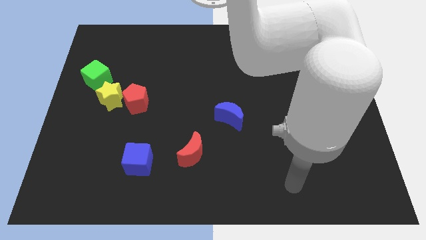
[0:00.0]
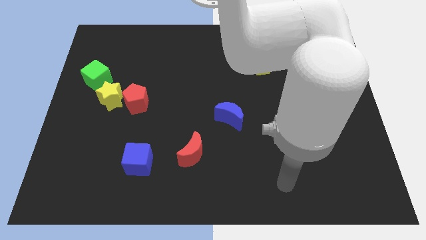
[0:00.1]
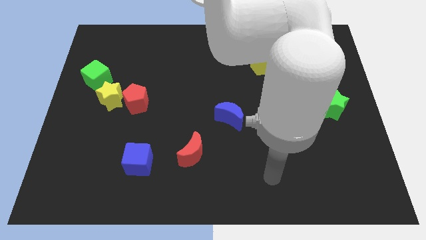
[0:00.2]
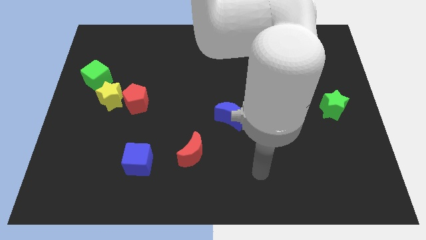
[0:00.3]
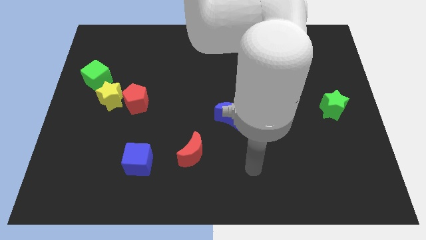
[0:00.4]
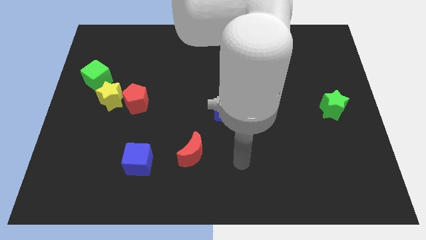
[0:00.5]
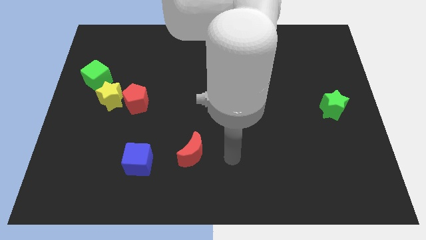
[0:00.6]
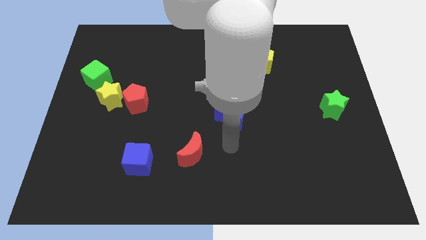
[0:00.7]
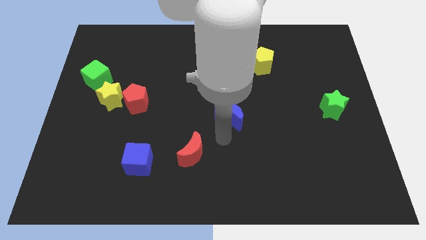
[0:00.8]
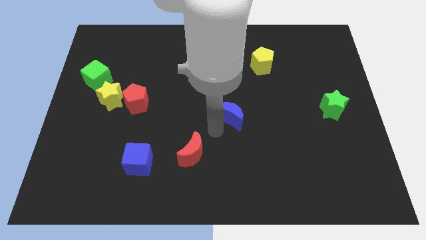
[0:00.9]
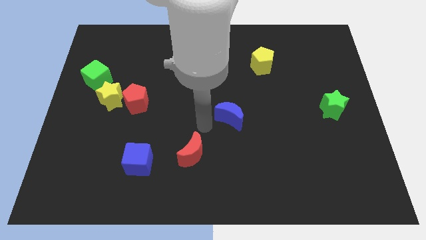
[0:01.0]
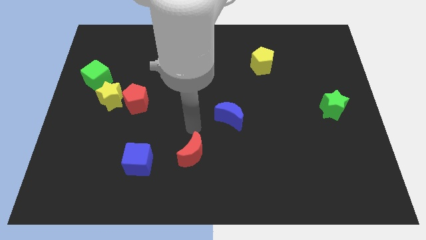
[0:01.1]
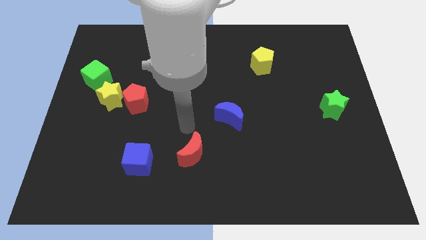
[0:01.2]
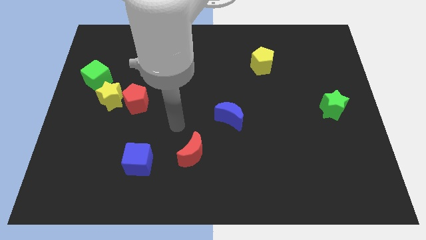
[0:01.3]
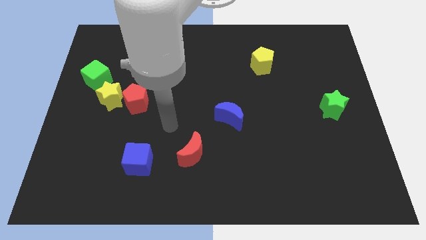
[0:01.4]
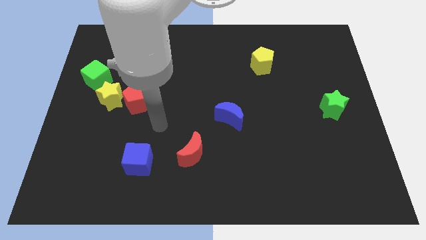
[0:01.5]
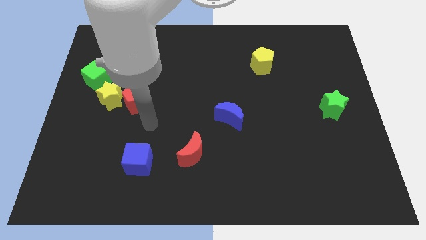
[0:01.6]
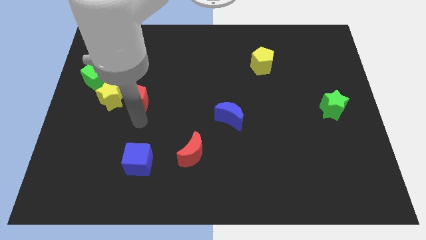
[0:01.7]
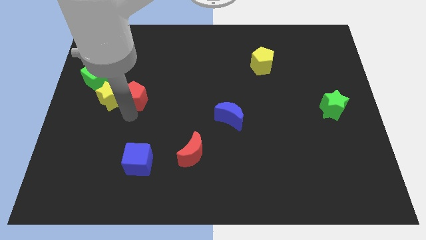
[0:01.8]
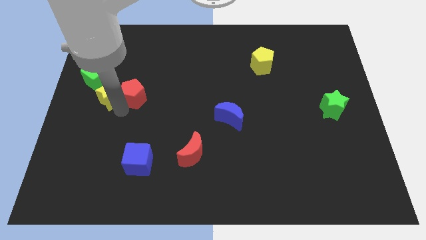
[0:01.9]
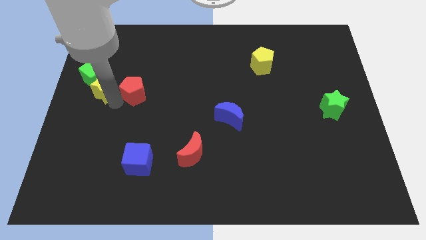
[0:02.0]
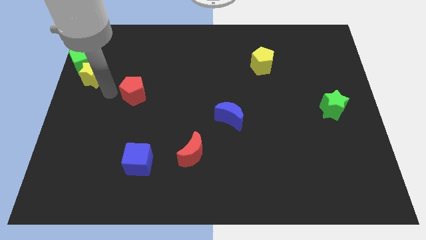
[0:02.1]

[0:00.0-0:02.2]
pull the red pentagon apart from the yellow star

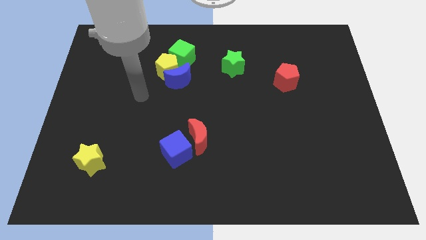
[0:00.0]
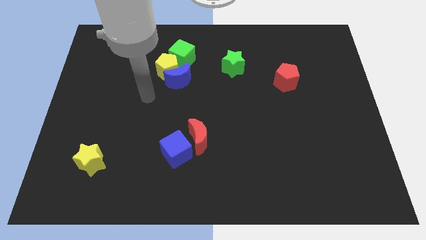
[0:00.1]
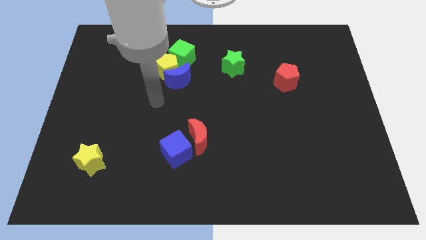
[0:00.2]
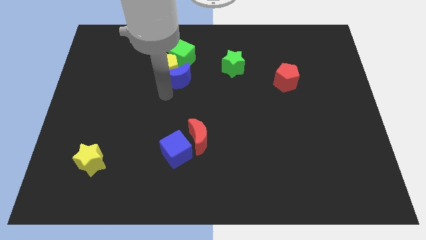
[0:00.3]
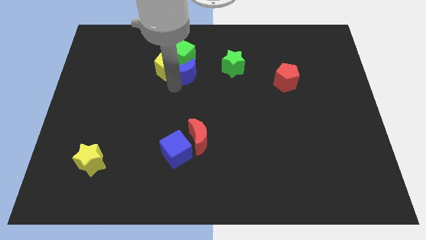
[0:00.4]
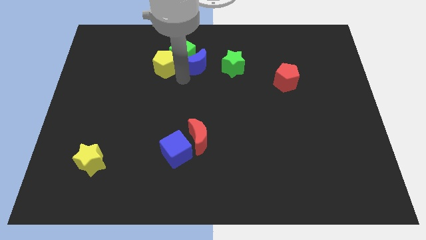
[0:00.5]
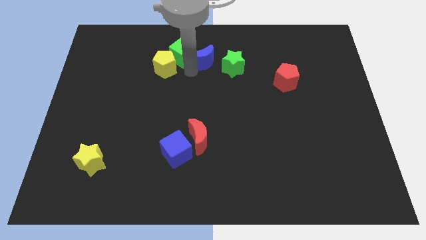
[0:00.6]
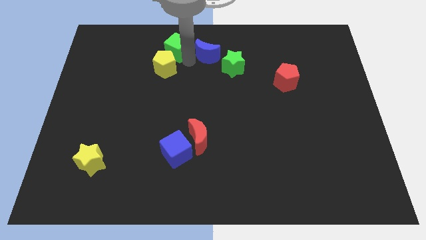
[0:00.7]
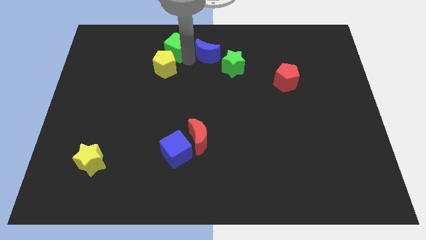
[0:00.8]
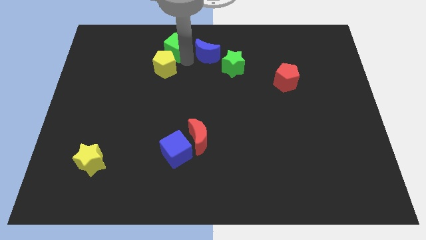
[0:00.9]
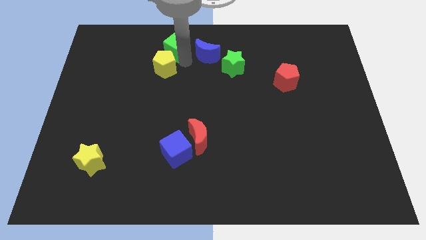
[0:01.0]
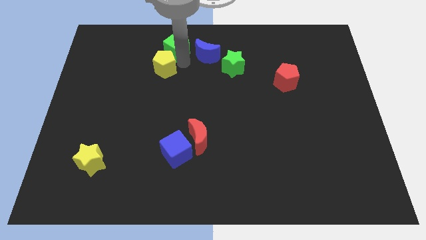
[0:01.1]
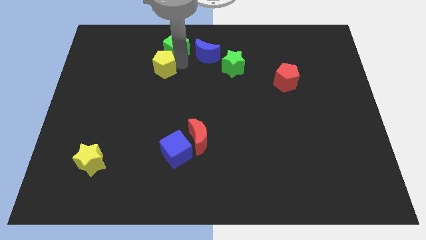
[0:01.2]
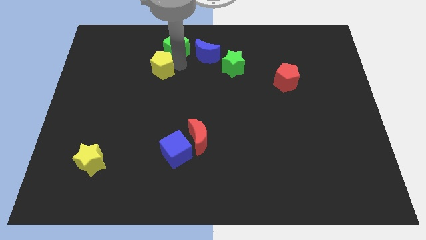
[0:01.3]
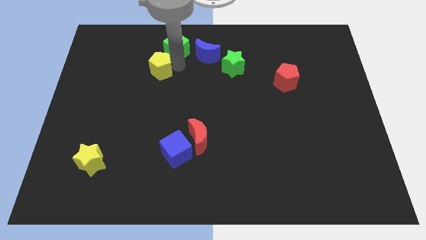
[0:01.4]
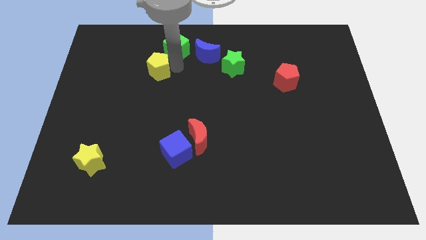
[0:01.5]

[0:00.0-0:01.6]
move the yellow pentagon away from the blue moon and green cube

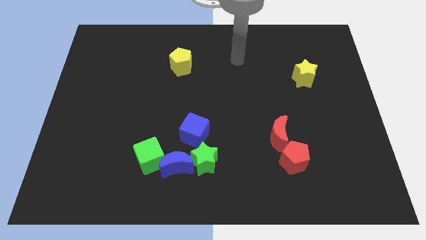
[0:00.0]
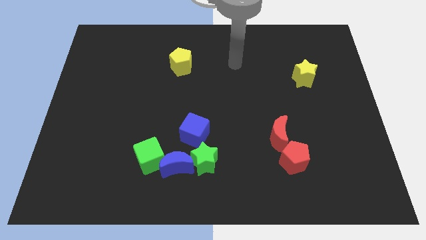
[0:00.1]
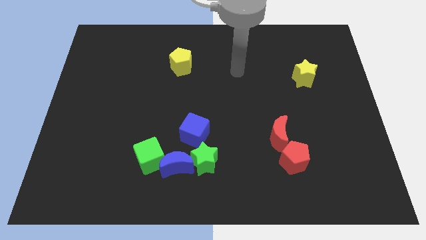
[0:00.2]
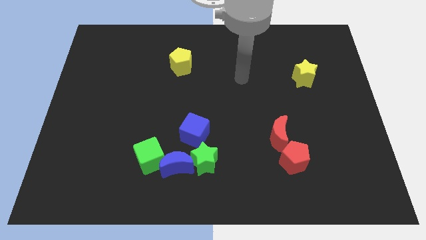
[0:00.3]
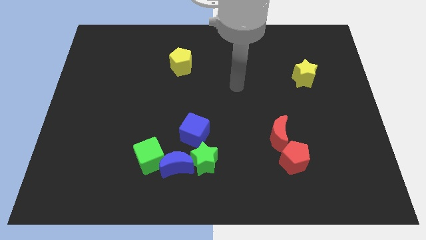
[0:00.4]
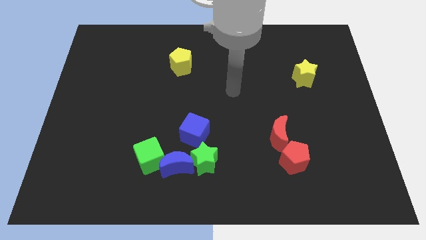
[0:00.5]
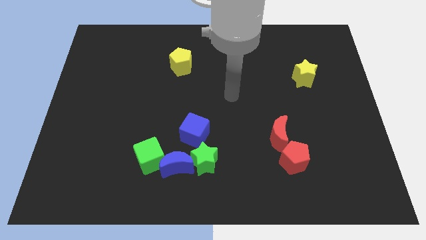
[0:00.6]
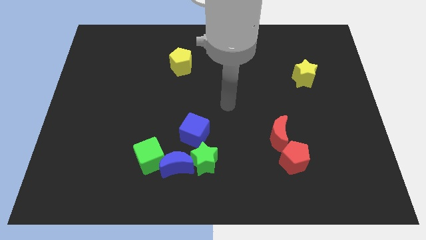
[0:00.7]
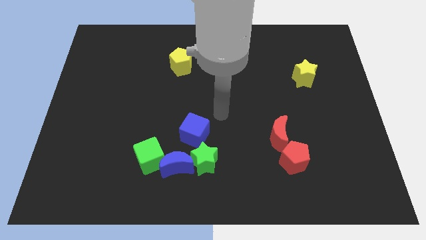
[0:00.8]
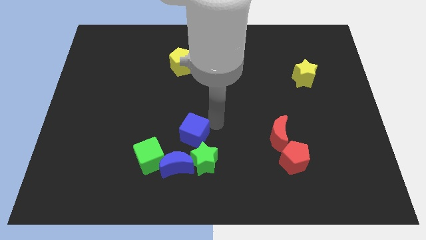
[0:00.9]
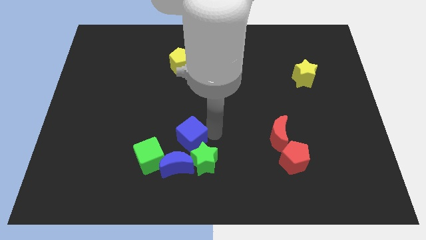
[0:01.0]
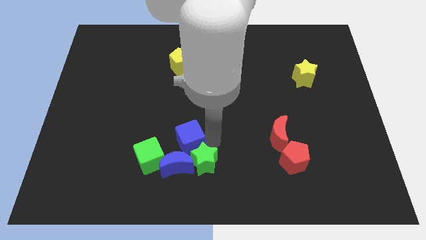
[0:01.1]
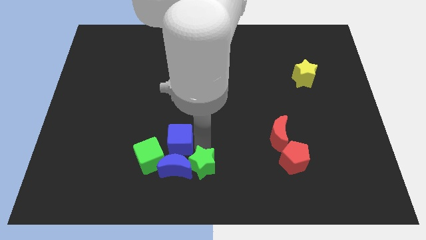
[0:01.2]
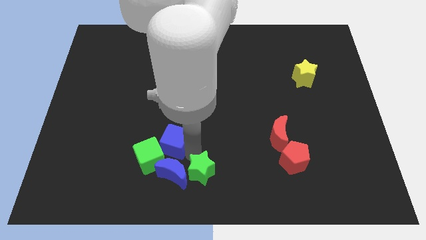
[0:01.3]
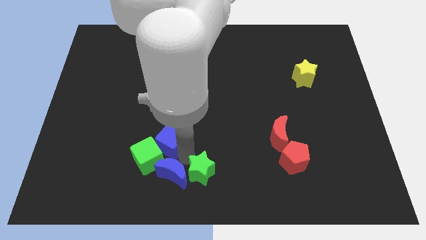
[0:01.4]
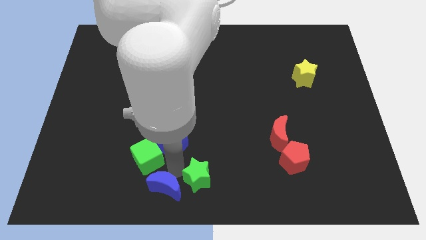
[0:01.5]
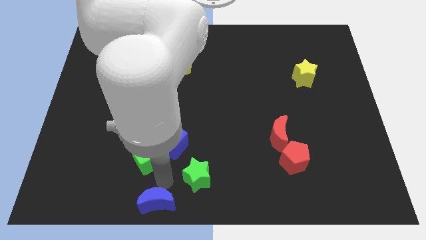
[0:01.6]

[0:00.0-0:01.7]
pull the green cube apart from the blue moon

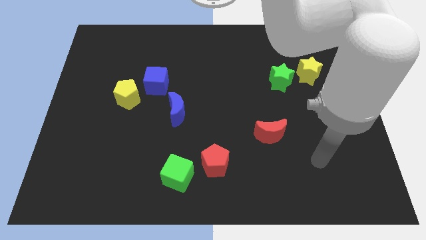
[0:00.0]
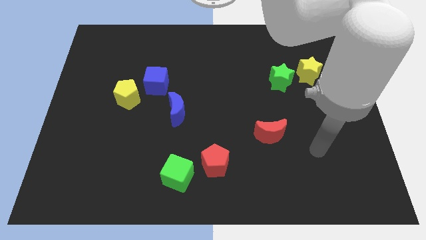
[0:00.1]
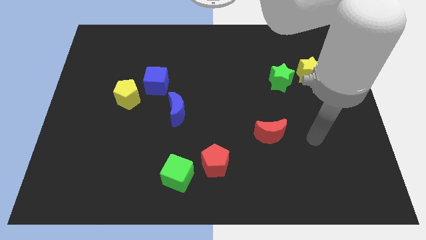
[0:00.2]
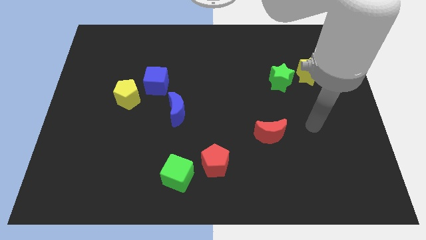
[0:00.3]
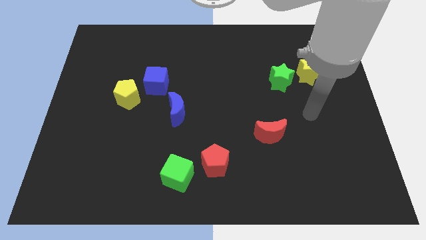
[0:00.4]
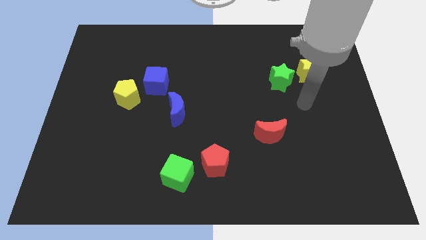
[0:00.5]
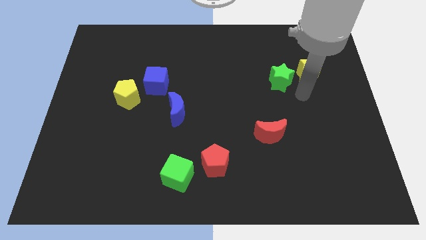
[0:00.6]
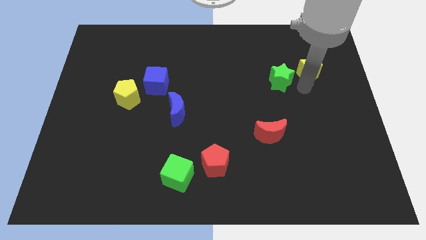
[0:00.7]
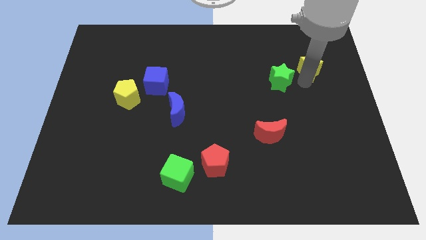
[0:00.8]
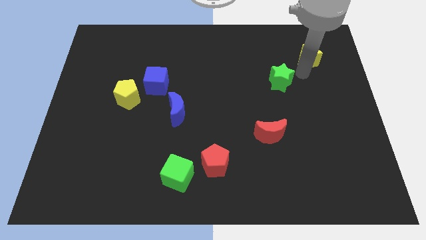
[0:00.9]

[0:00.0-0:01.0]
pull the green star apart from the yellow star

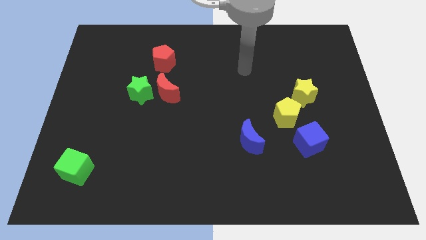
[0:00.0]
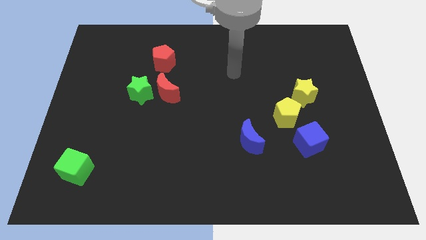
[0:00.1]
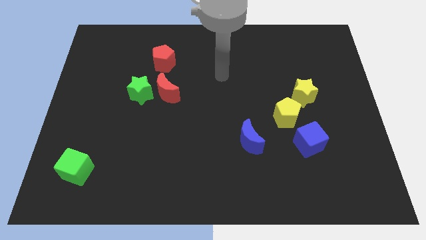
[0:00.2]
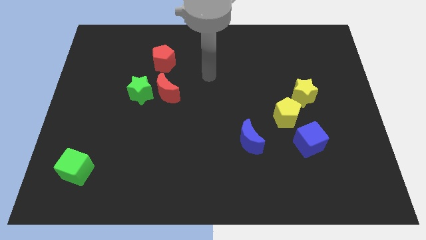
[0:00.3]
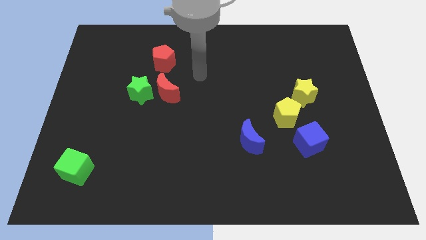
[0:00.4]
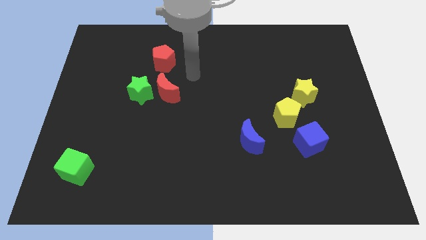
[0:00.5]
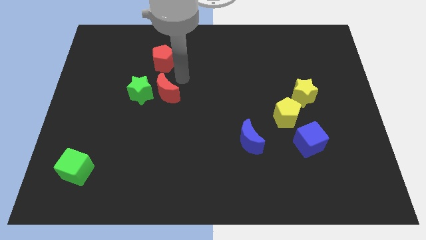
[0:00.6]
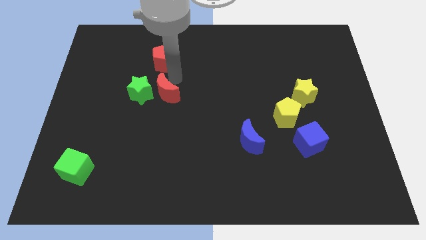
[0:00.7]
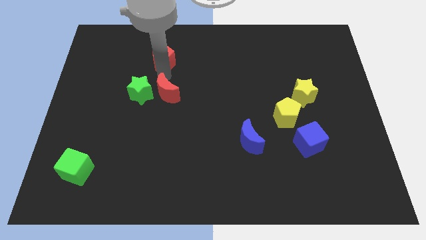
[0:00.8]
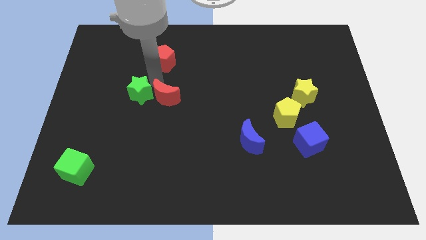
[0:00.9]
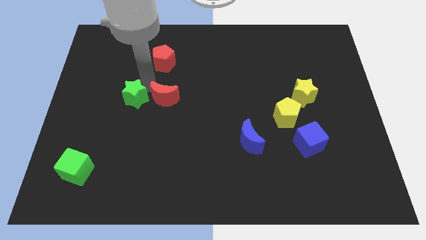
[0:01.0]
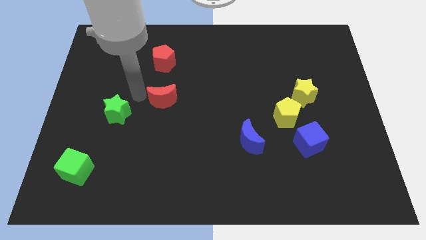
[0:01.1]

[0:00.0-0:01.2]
move the red moon away from the green star

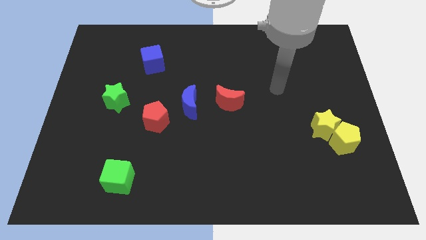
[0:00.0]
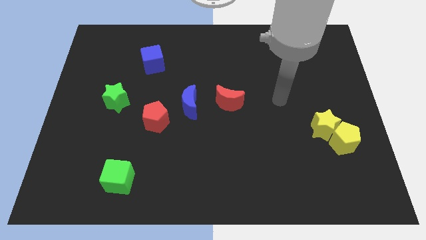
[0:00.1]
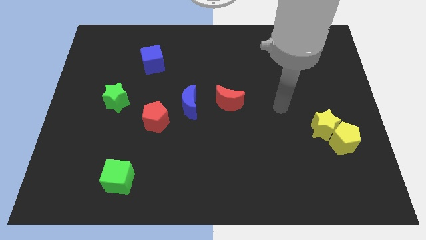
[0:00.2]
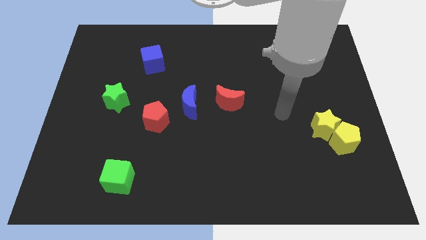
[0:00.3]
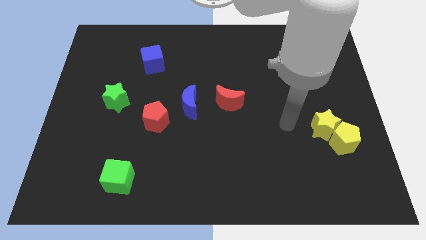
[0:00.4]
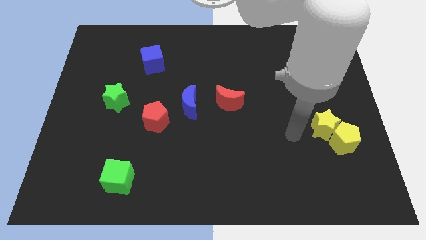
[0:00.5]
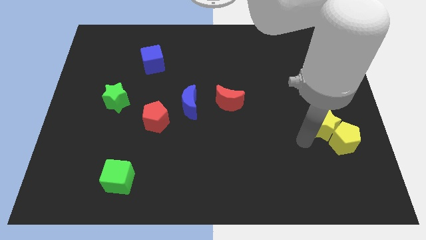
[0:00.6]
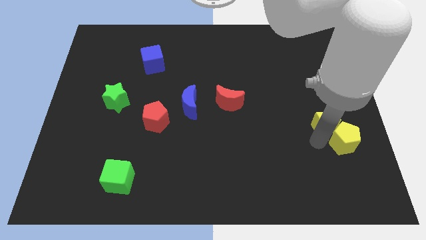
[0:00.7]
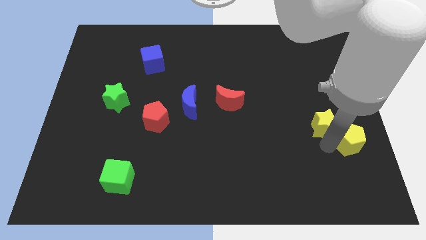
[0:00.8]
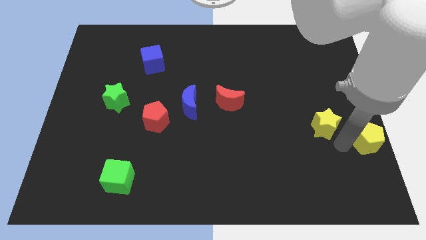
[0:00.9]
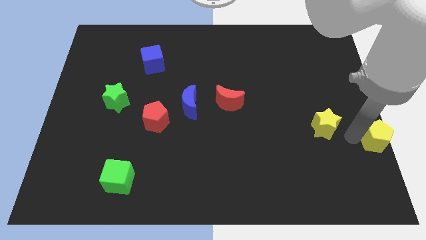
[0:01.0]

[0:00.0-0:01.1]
move the yellow star away from the yellow pentagon

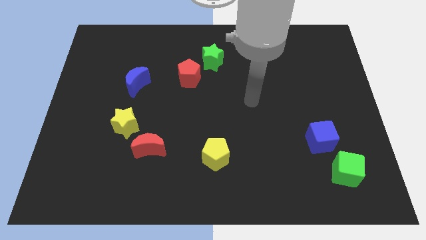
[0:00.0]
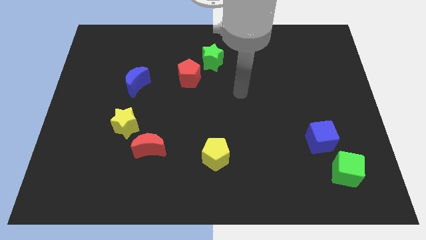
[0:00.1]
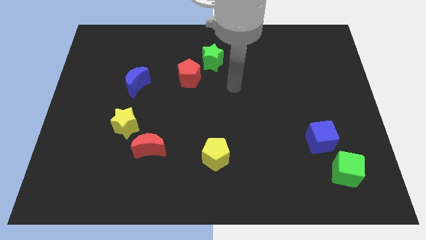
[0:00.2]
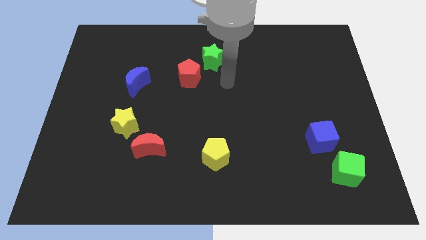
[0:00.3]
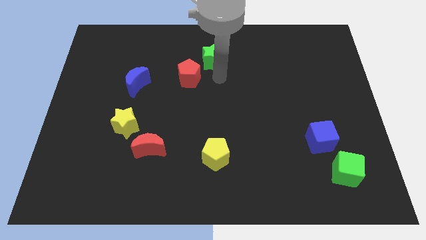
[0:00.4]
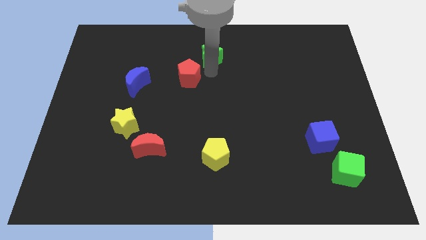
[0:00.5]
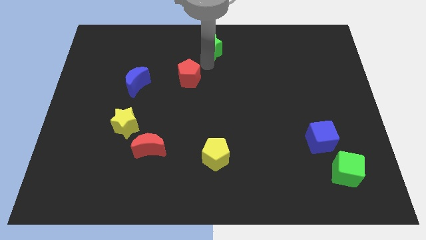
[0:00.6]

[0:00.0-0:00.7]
move the red pentagon away from the green star
